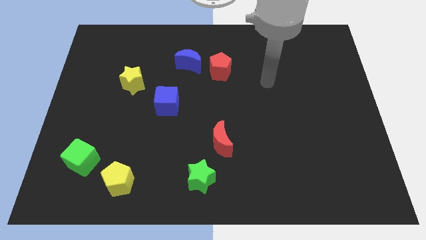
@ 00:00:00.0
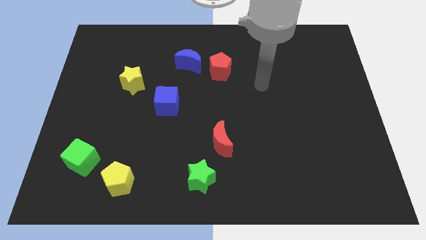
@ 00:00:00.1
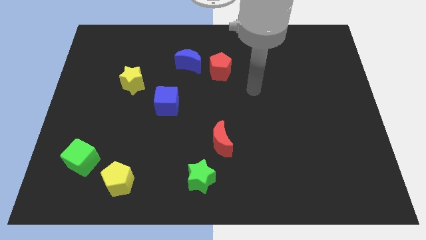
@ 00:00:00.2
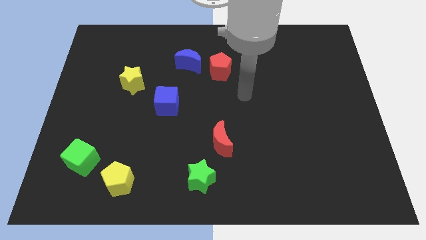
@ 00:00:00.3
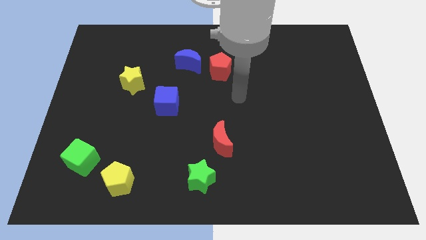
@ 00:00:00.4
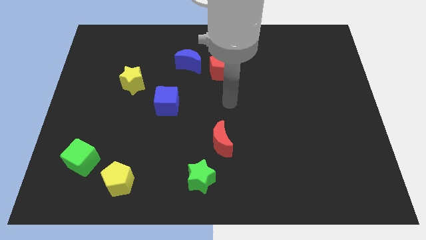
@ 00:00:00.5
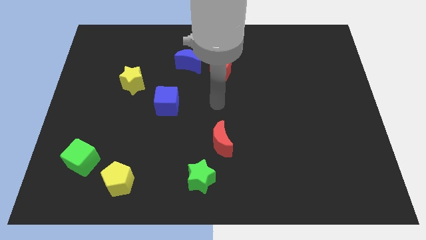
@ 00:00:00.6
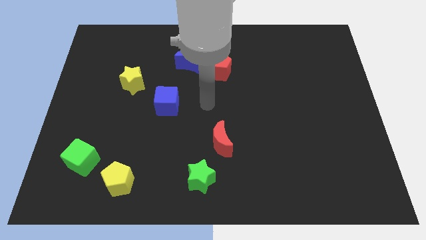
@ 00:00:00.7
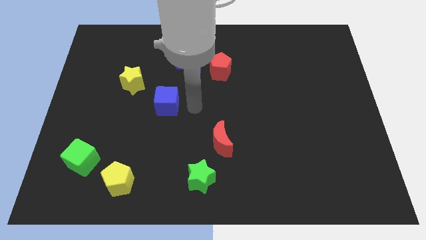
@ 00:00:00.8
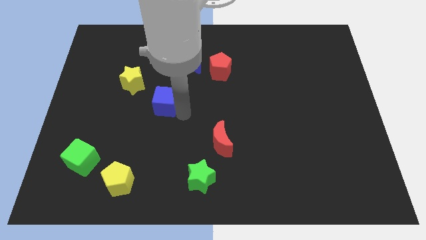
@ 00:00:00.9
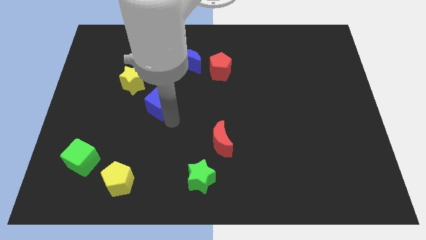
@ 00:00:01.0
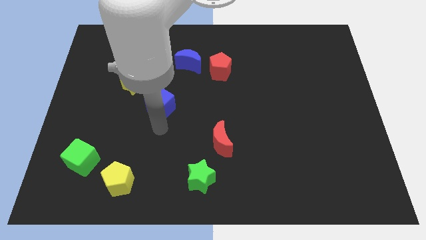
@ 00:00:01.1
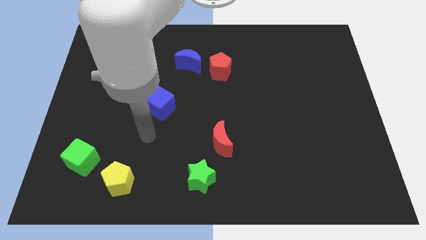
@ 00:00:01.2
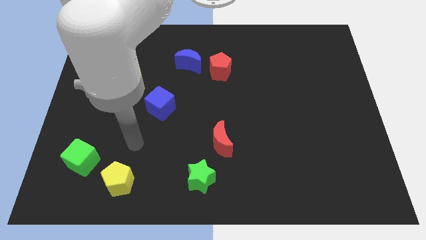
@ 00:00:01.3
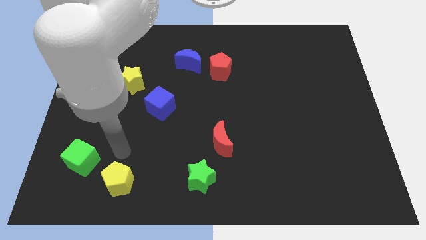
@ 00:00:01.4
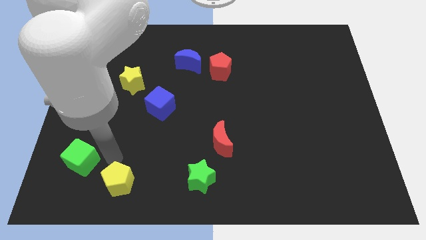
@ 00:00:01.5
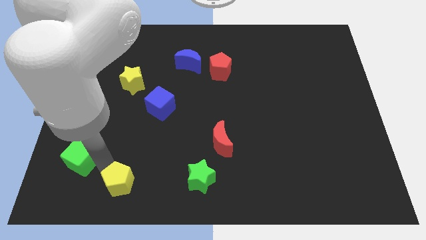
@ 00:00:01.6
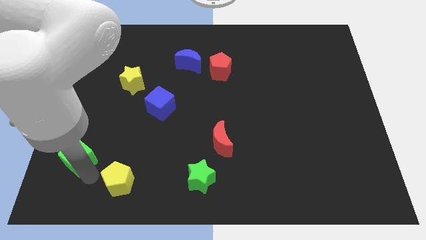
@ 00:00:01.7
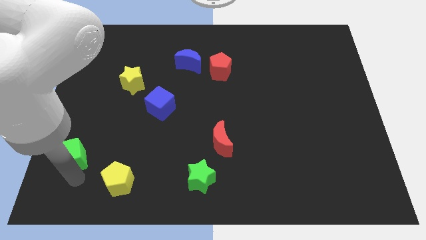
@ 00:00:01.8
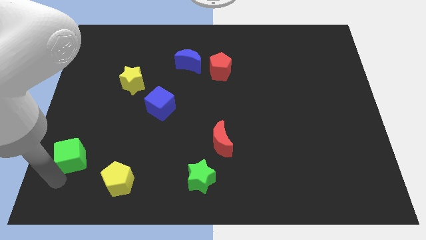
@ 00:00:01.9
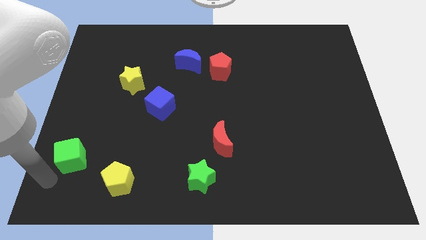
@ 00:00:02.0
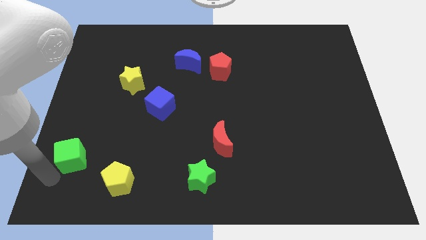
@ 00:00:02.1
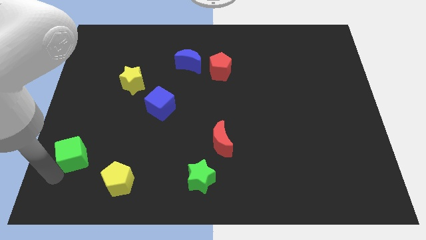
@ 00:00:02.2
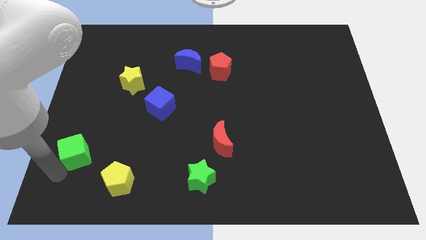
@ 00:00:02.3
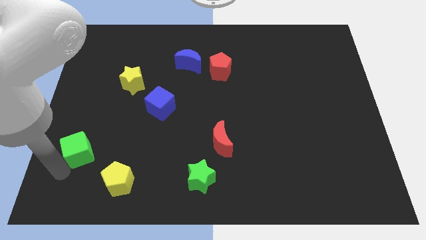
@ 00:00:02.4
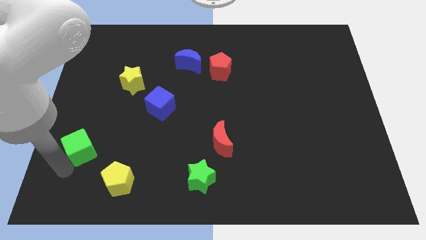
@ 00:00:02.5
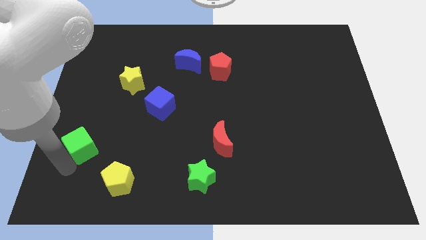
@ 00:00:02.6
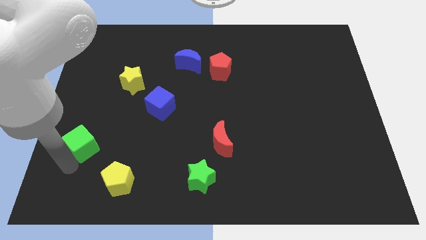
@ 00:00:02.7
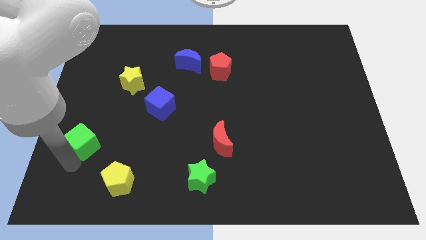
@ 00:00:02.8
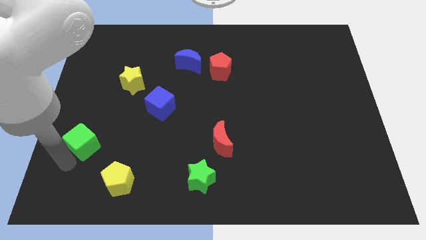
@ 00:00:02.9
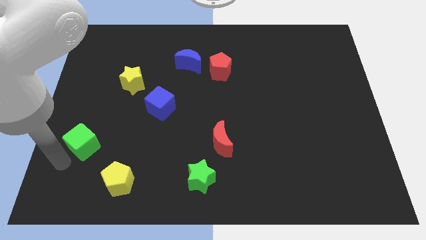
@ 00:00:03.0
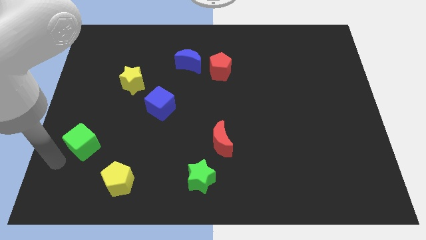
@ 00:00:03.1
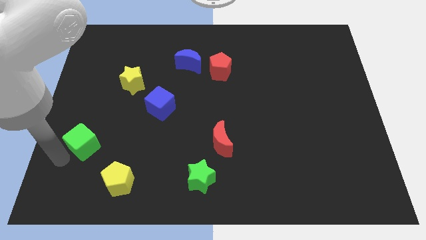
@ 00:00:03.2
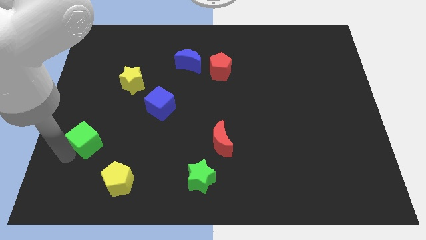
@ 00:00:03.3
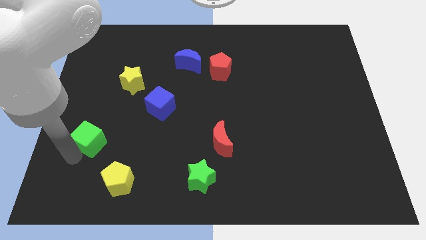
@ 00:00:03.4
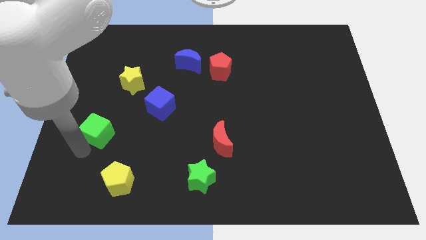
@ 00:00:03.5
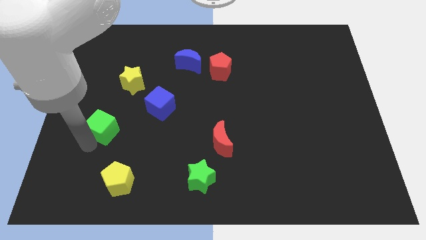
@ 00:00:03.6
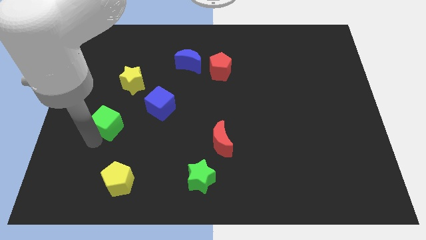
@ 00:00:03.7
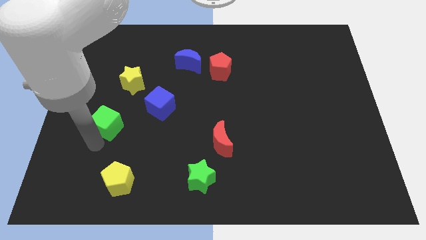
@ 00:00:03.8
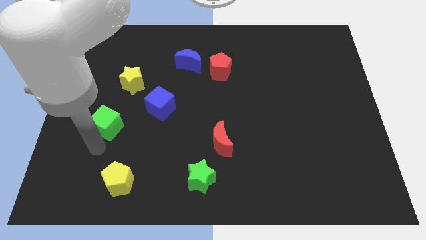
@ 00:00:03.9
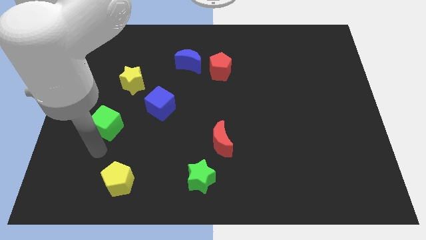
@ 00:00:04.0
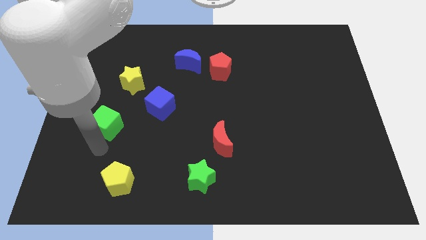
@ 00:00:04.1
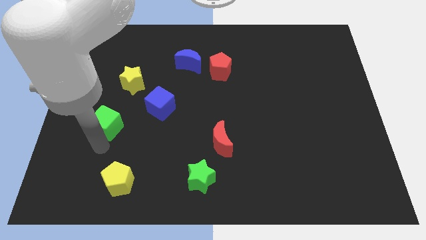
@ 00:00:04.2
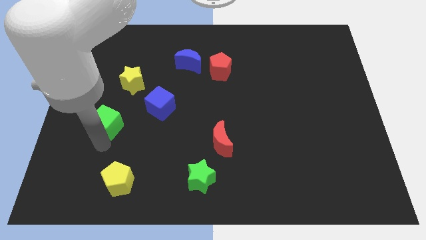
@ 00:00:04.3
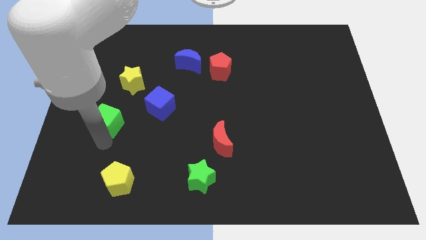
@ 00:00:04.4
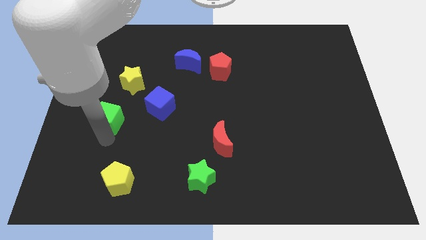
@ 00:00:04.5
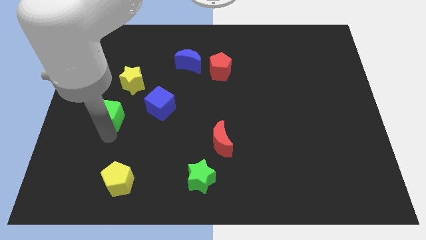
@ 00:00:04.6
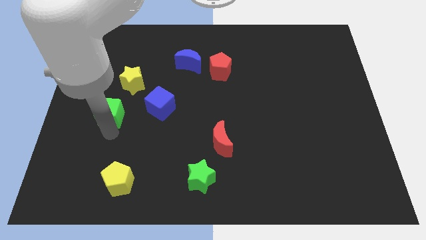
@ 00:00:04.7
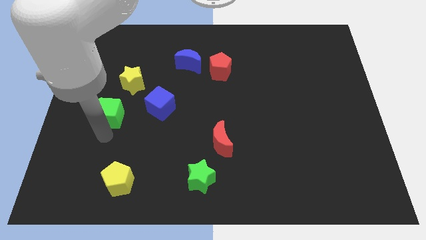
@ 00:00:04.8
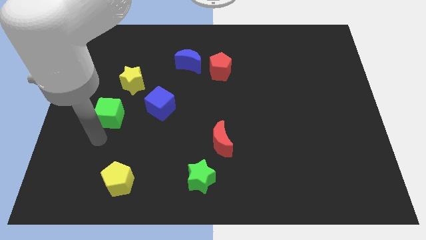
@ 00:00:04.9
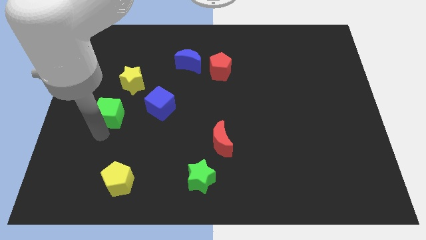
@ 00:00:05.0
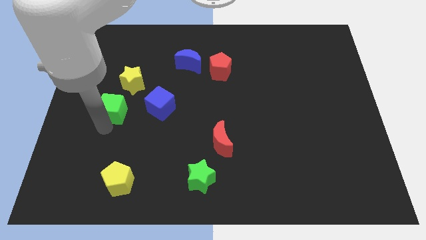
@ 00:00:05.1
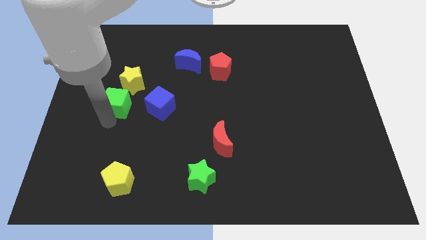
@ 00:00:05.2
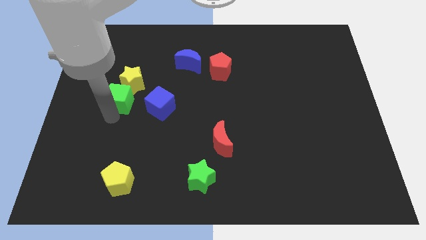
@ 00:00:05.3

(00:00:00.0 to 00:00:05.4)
push the green cube next to the yellow star

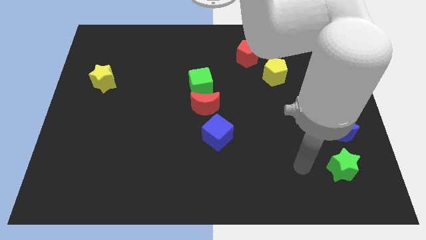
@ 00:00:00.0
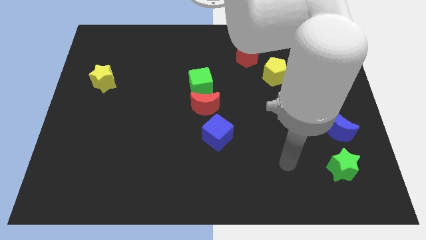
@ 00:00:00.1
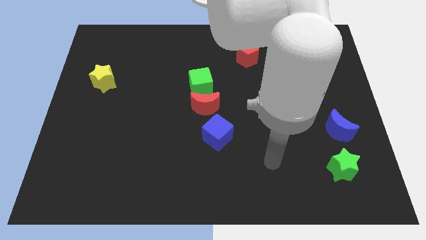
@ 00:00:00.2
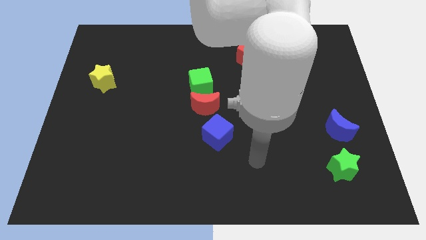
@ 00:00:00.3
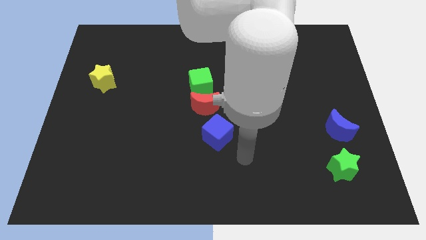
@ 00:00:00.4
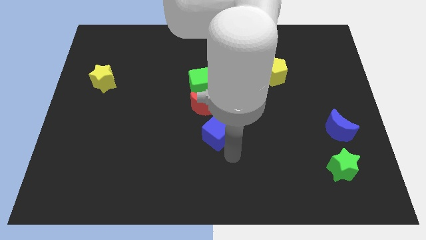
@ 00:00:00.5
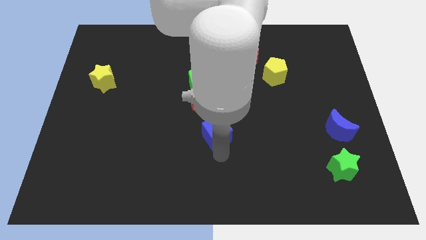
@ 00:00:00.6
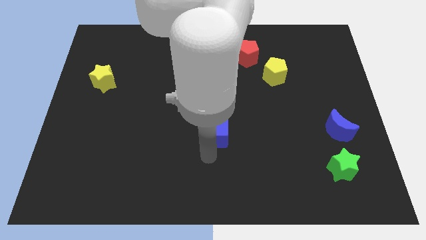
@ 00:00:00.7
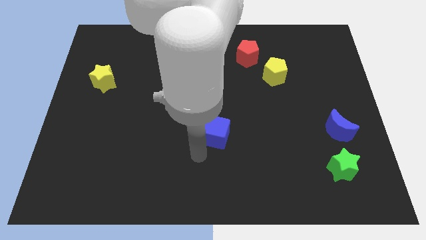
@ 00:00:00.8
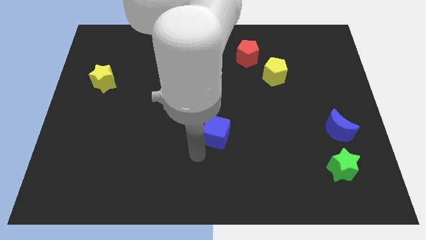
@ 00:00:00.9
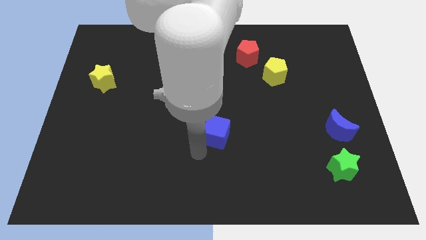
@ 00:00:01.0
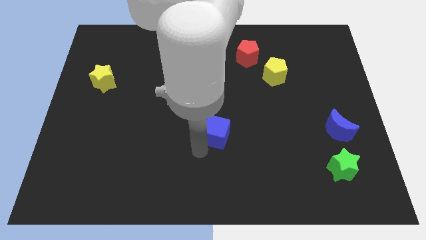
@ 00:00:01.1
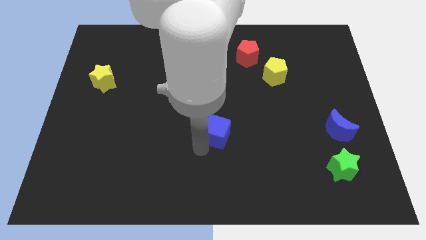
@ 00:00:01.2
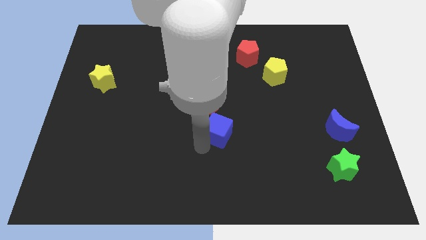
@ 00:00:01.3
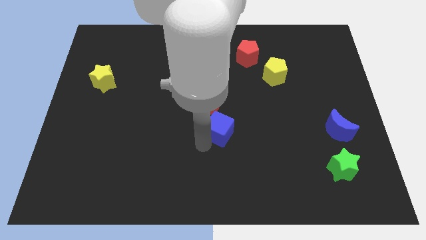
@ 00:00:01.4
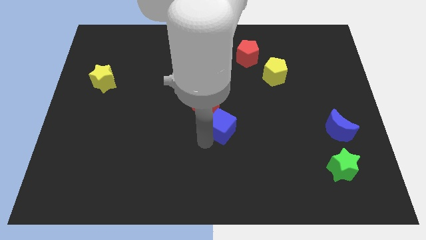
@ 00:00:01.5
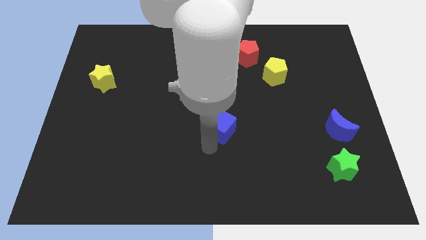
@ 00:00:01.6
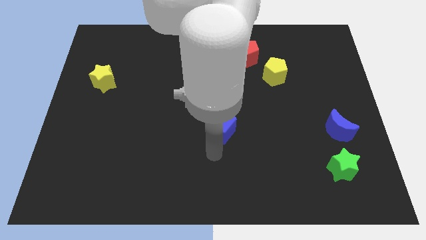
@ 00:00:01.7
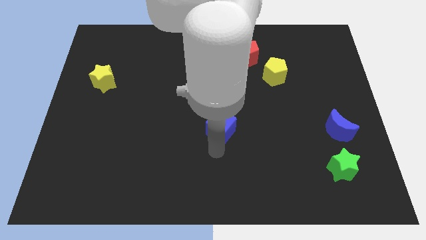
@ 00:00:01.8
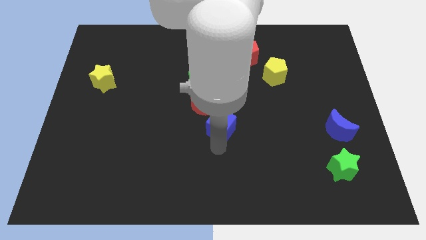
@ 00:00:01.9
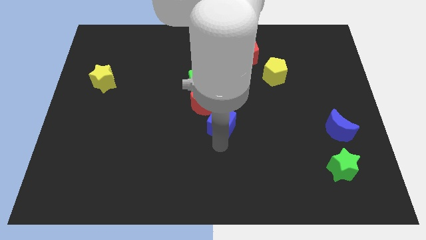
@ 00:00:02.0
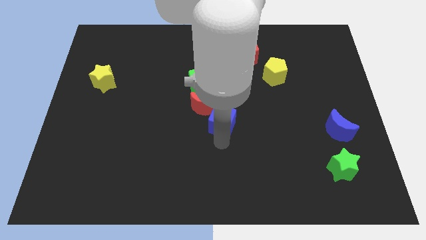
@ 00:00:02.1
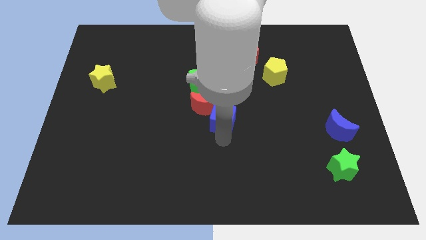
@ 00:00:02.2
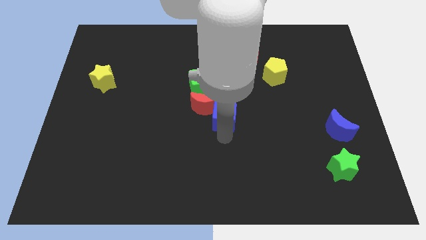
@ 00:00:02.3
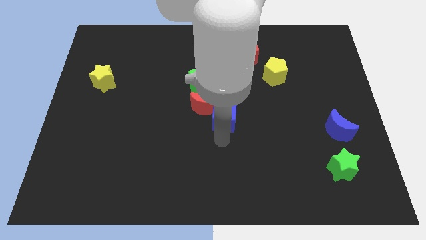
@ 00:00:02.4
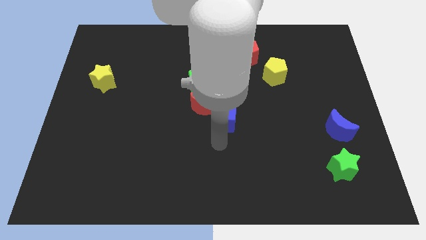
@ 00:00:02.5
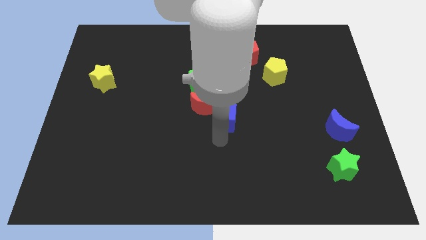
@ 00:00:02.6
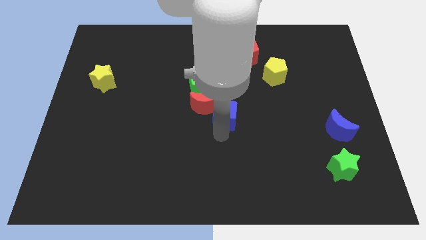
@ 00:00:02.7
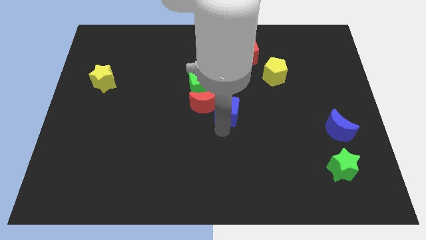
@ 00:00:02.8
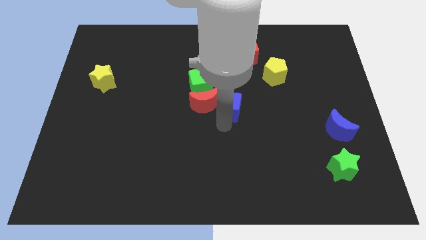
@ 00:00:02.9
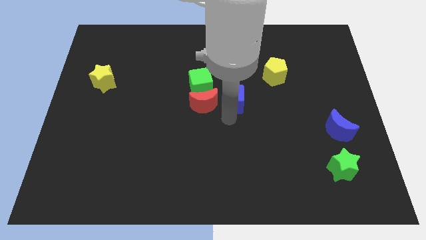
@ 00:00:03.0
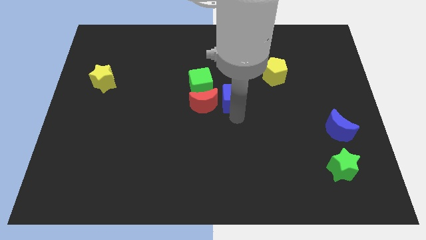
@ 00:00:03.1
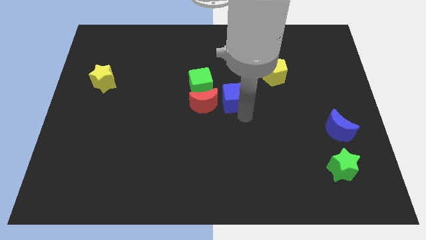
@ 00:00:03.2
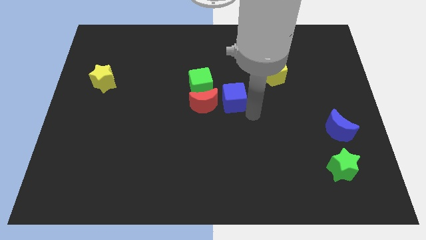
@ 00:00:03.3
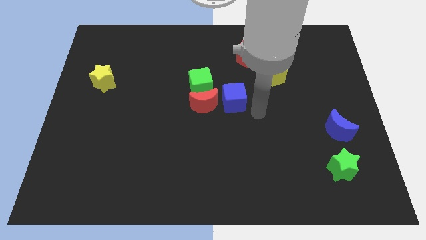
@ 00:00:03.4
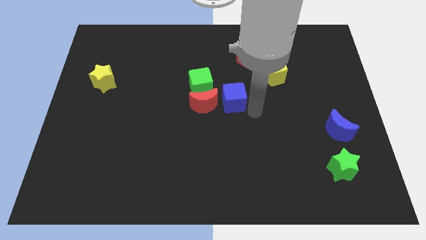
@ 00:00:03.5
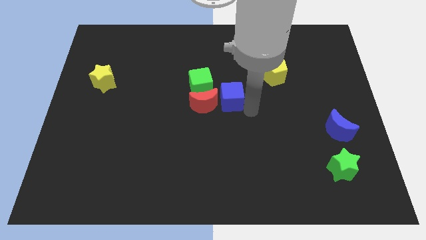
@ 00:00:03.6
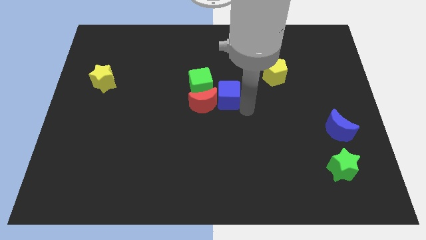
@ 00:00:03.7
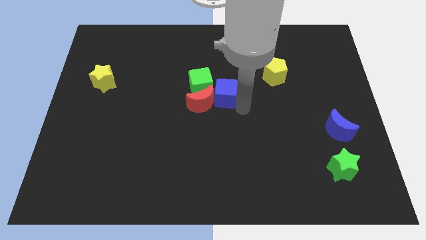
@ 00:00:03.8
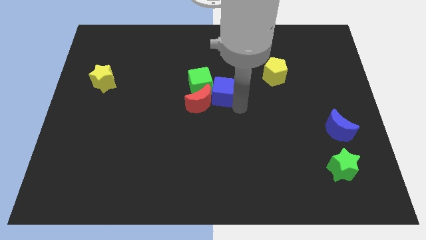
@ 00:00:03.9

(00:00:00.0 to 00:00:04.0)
push the blue cube close to the green cube
